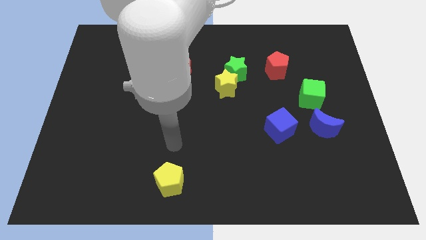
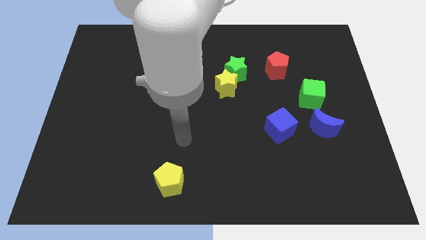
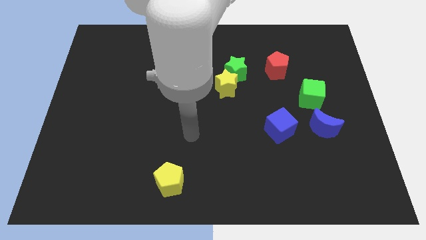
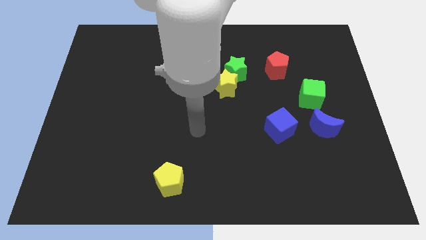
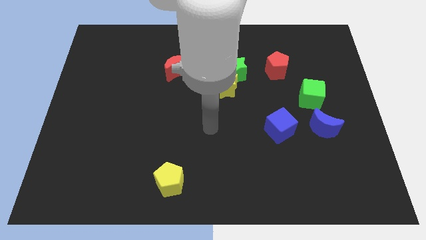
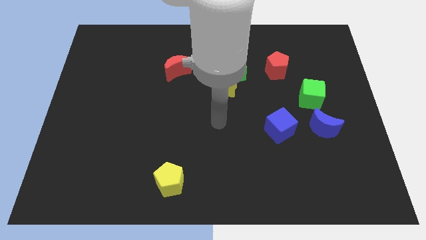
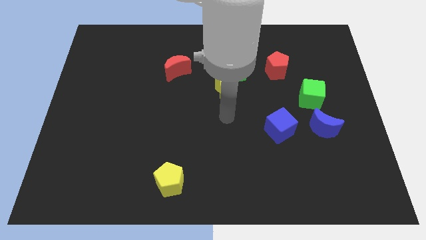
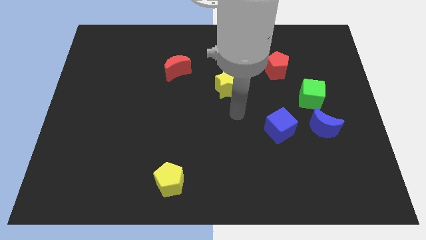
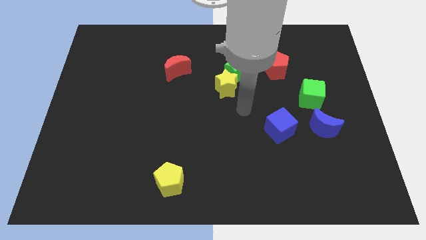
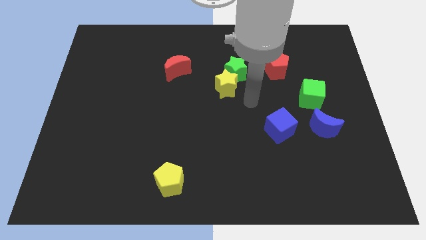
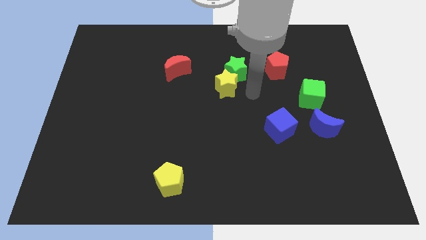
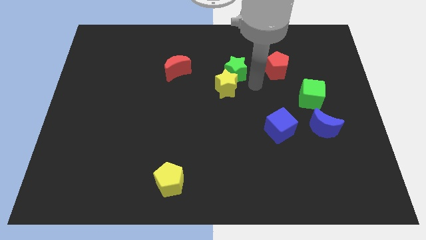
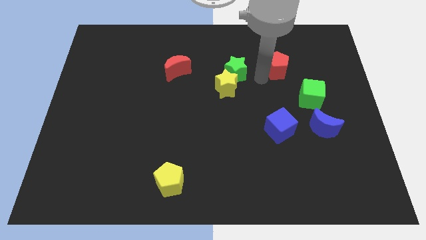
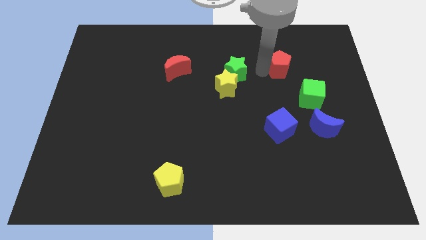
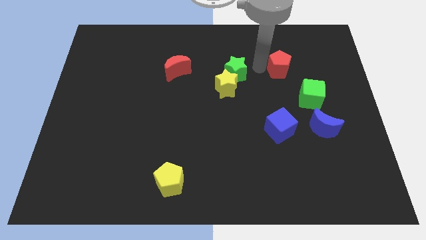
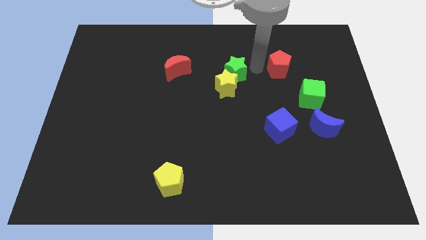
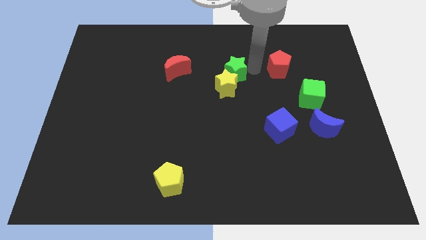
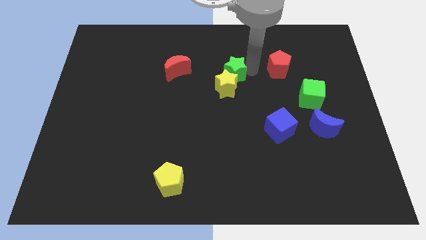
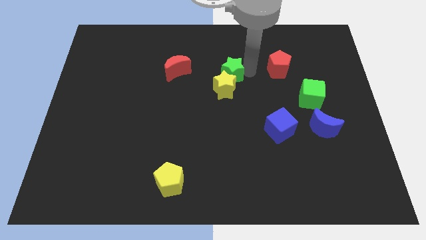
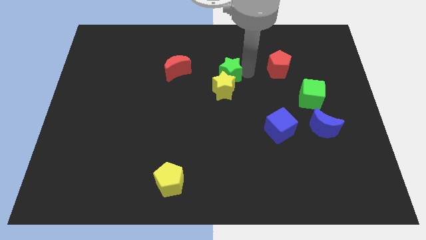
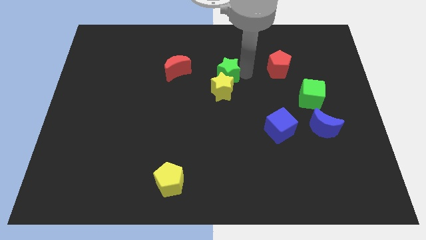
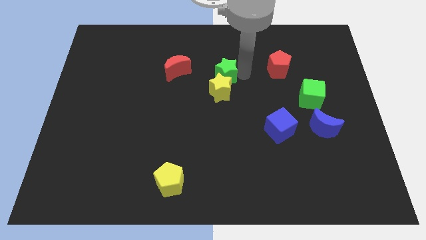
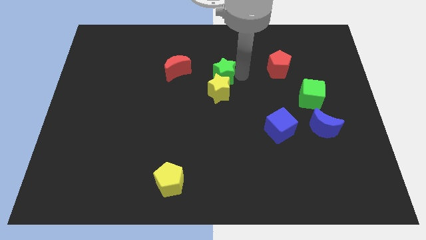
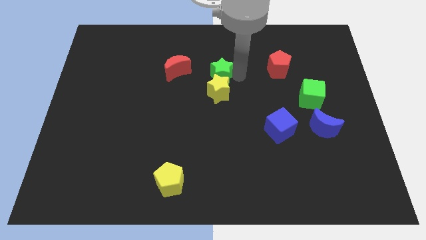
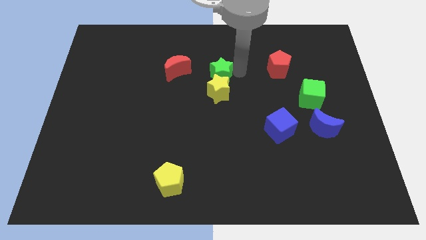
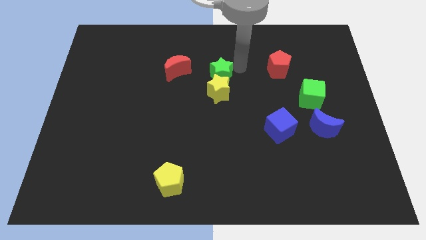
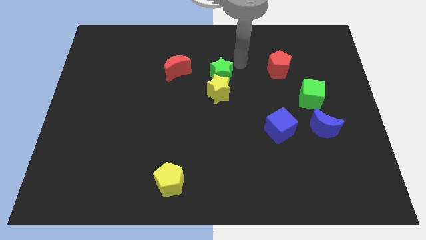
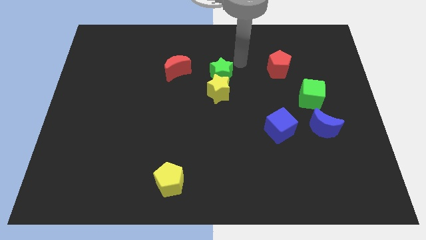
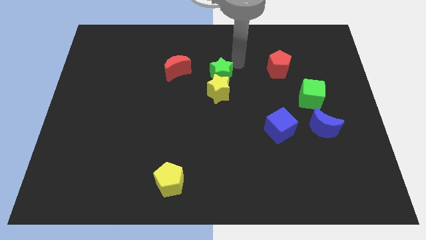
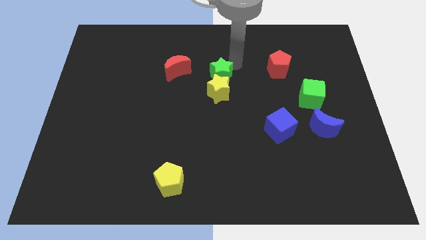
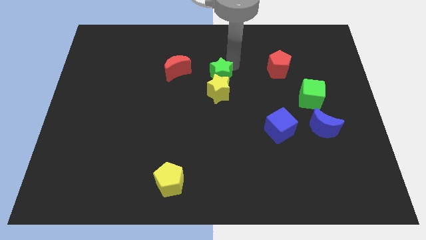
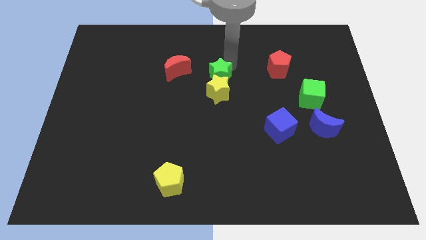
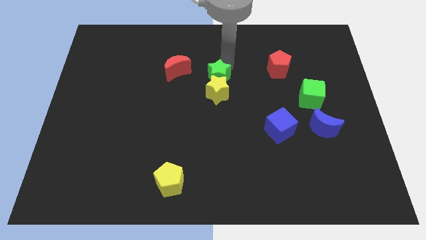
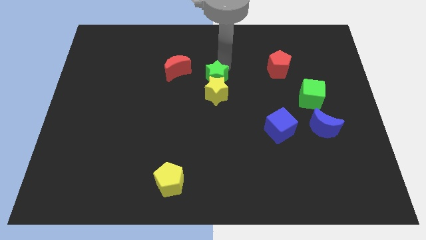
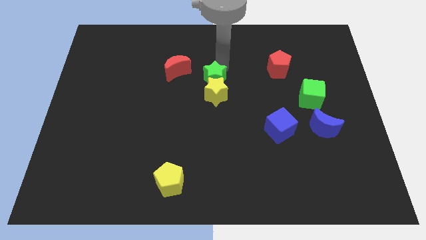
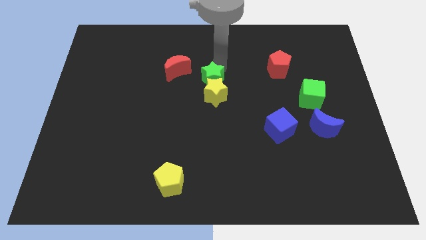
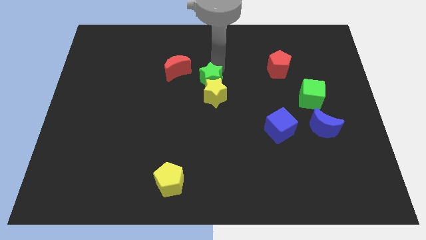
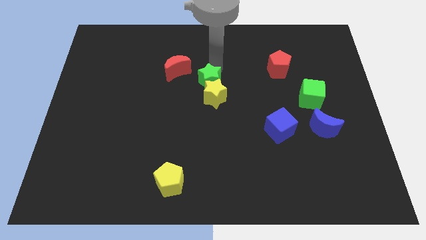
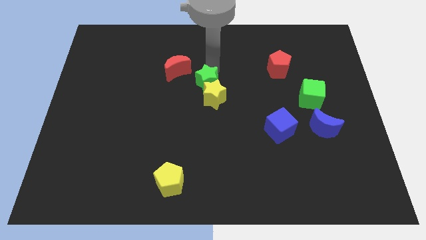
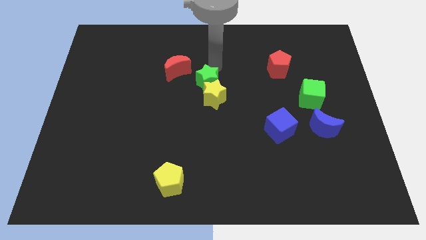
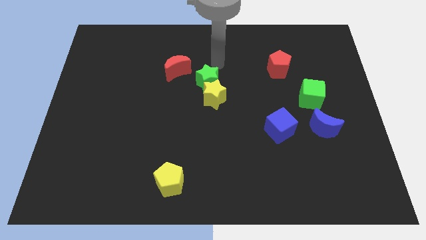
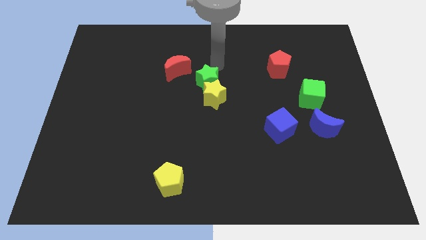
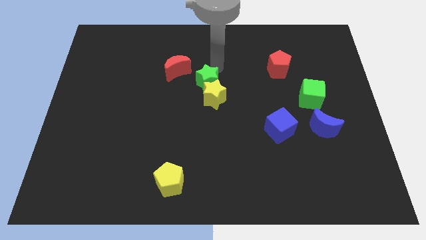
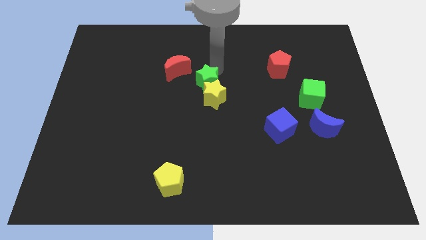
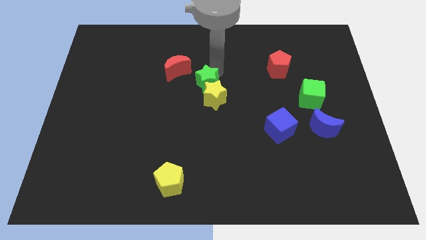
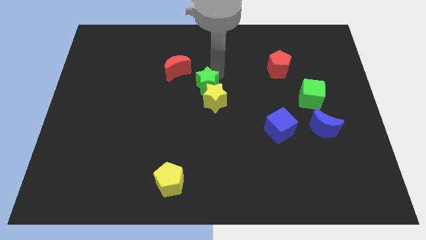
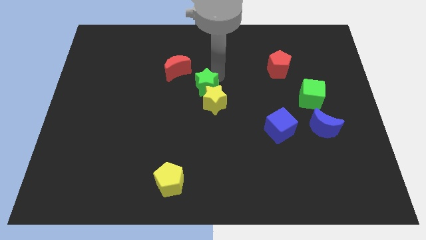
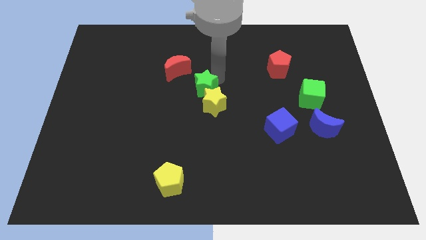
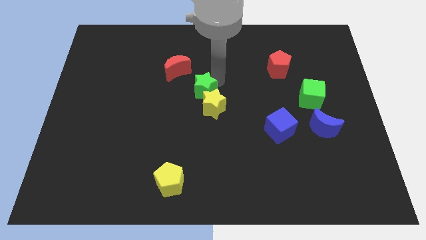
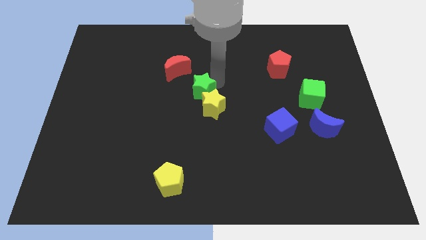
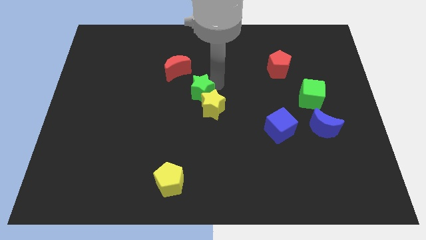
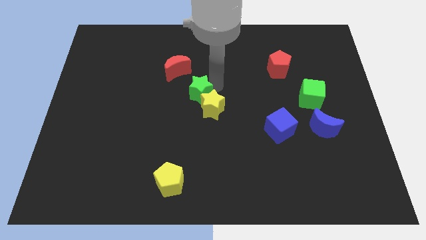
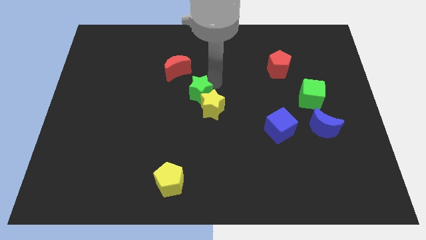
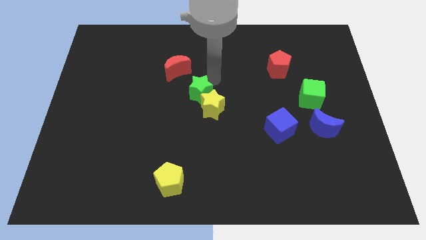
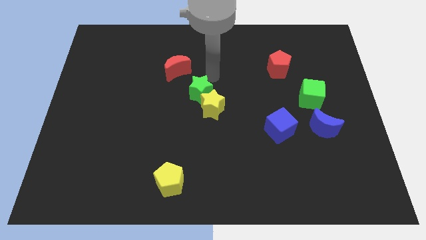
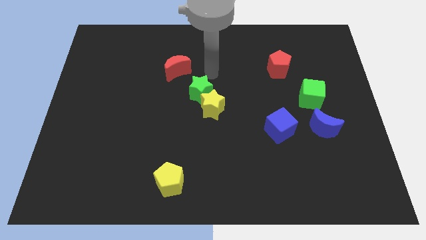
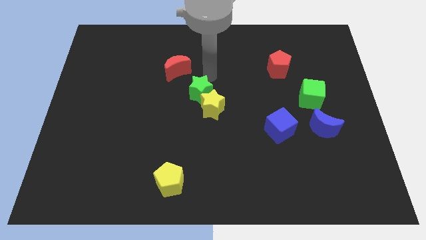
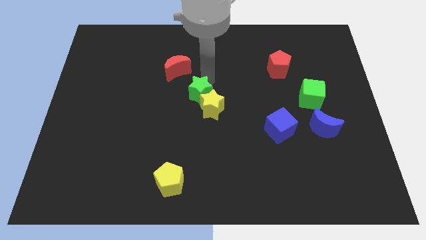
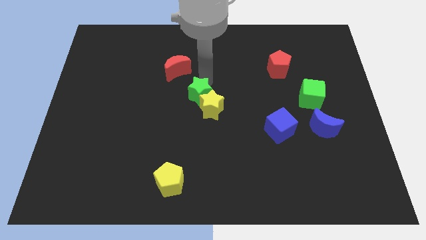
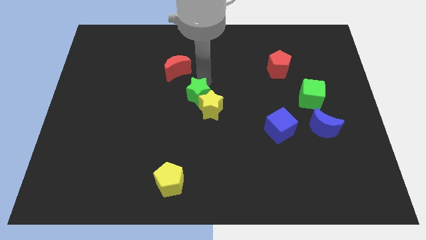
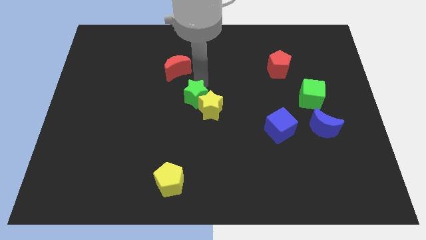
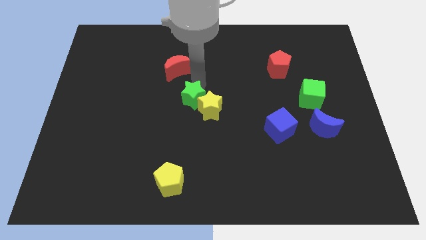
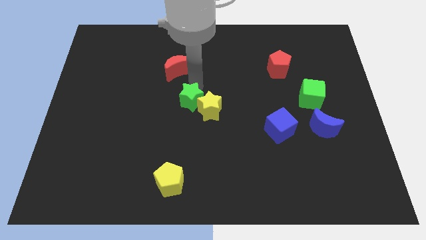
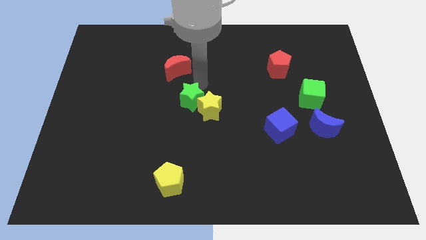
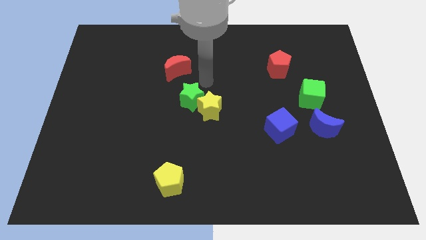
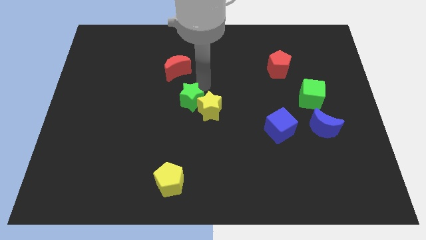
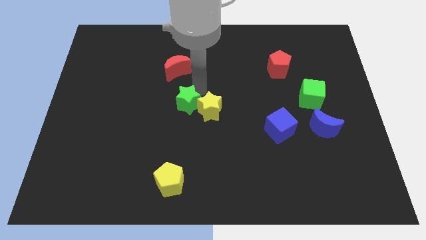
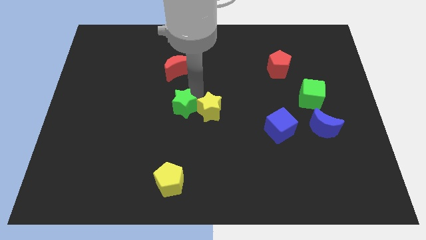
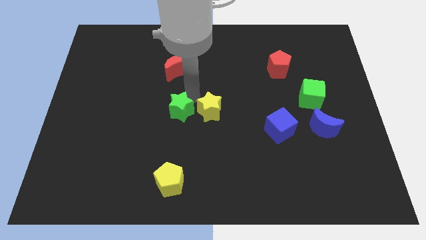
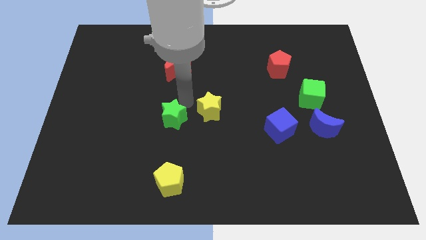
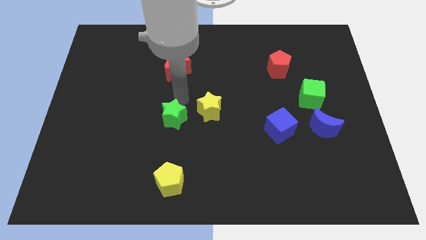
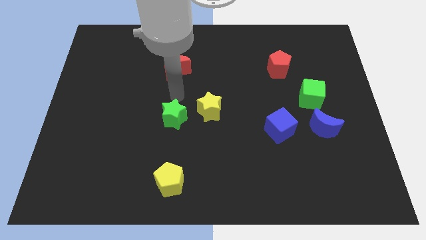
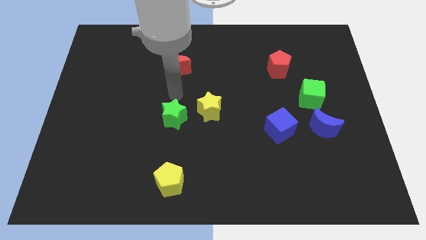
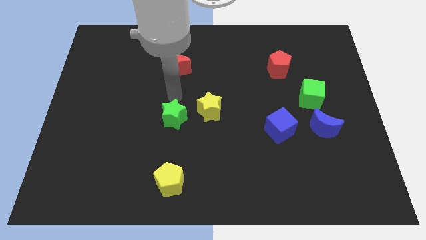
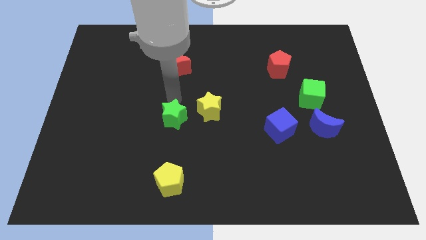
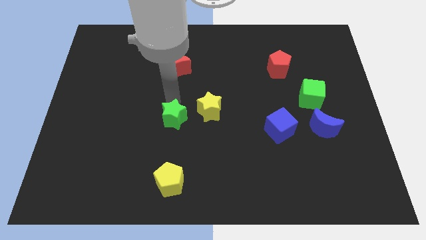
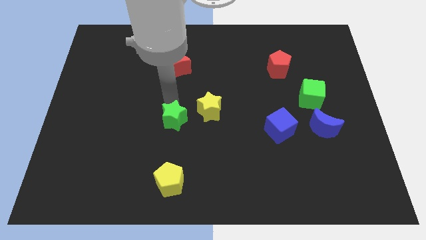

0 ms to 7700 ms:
push the green star to the top of the yellow pentagon
